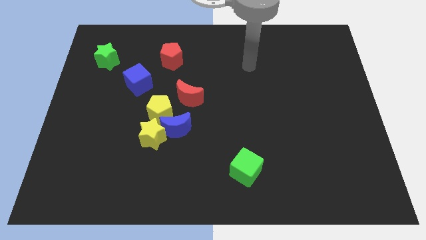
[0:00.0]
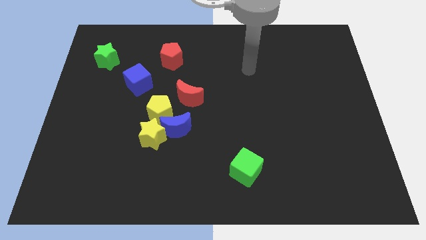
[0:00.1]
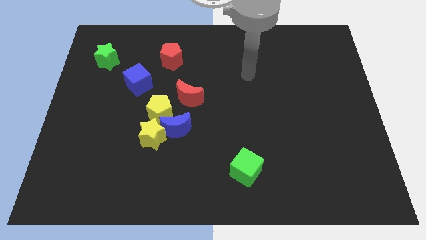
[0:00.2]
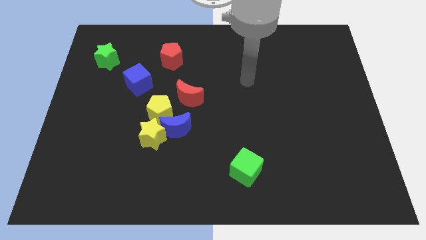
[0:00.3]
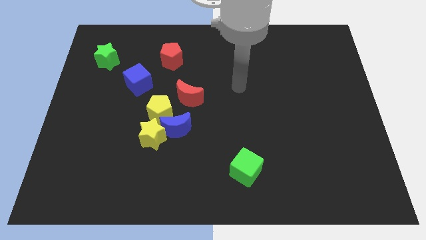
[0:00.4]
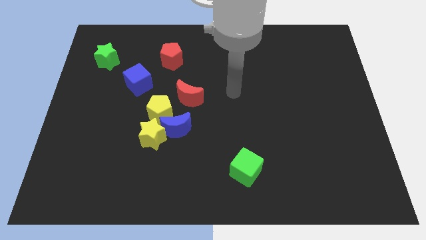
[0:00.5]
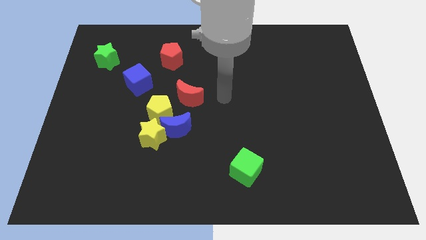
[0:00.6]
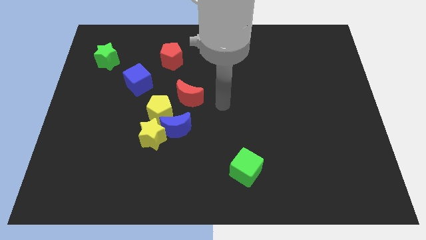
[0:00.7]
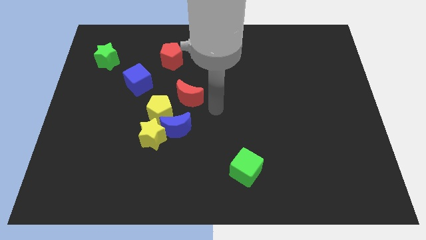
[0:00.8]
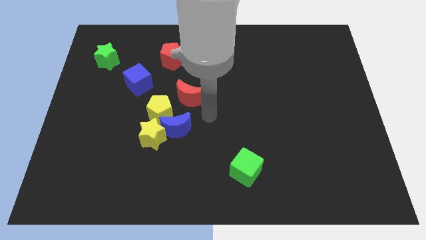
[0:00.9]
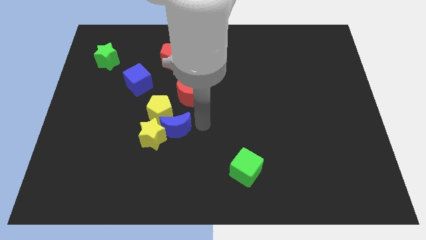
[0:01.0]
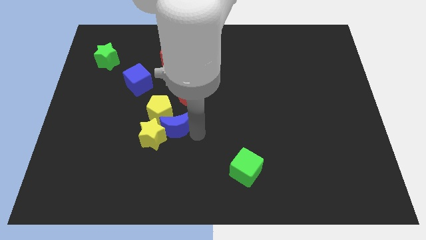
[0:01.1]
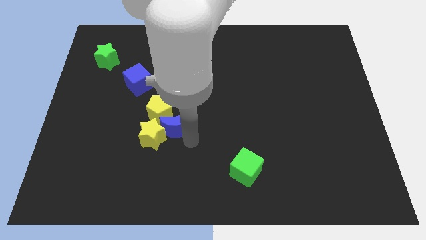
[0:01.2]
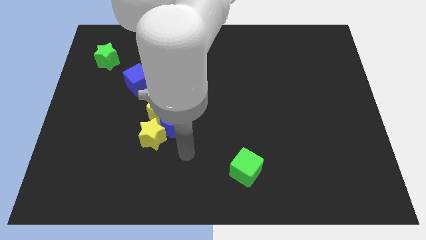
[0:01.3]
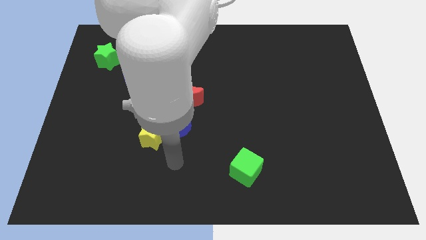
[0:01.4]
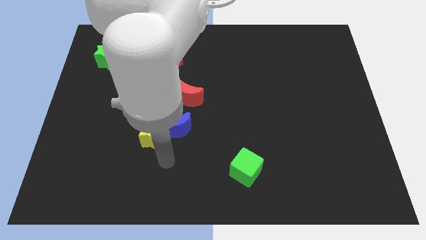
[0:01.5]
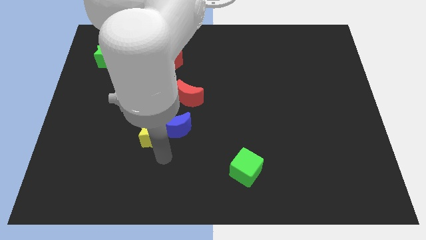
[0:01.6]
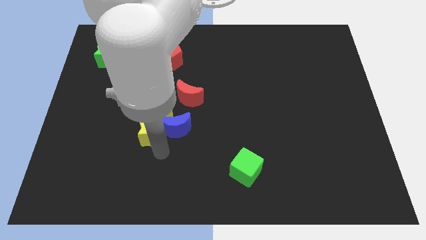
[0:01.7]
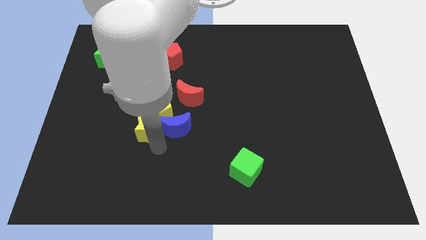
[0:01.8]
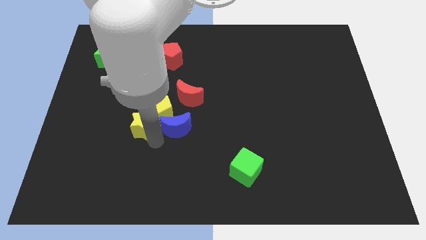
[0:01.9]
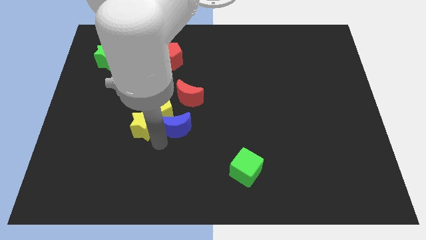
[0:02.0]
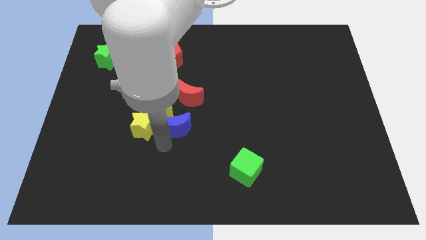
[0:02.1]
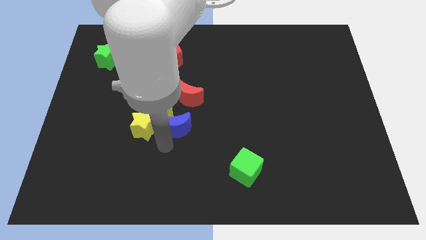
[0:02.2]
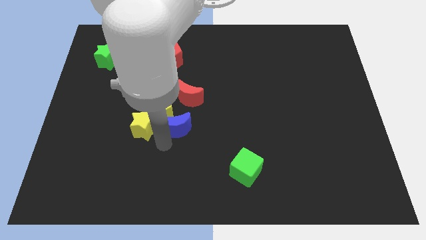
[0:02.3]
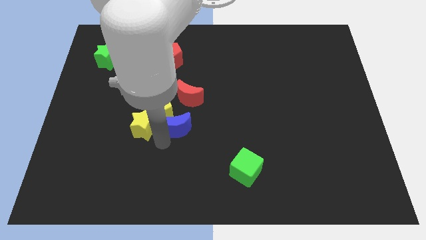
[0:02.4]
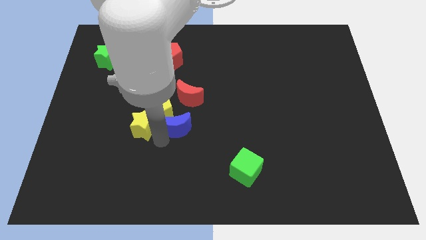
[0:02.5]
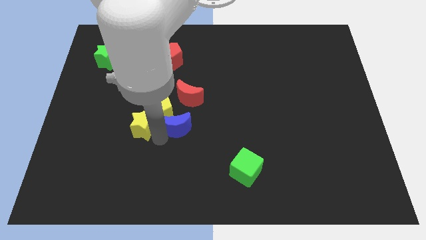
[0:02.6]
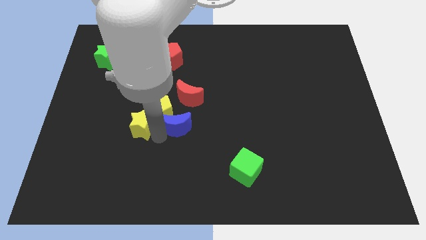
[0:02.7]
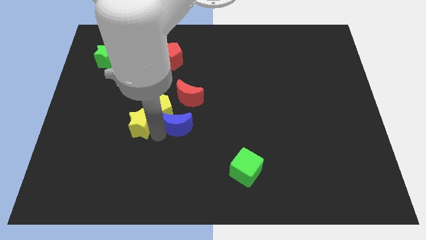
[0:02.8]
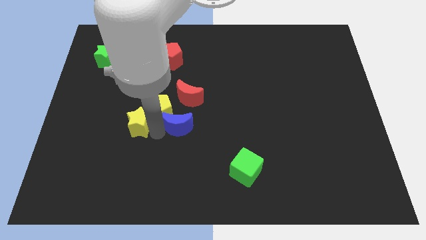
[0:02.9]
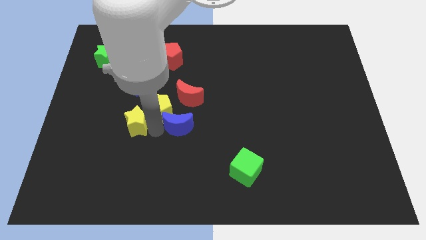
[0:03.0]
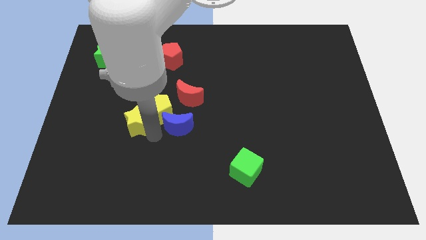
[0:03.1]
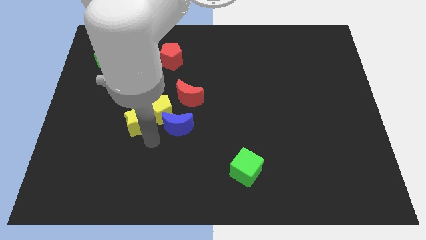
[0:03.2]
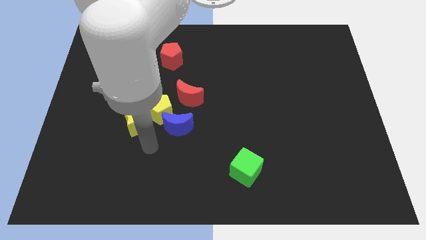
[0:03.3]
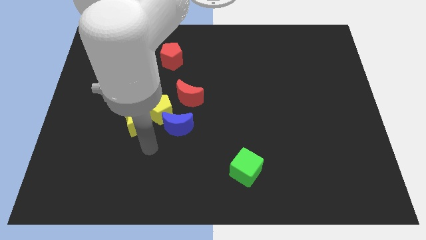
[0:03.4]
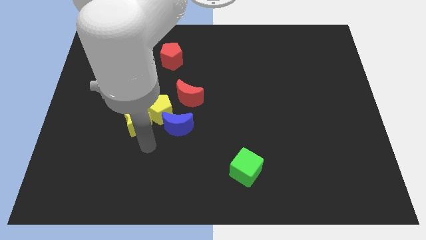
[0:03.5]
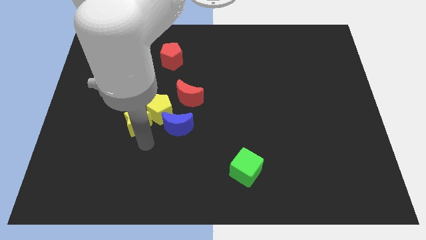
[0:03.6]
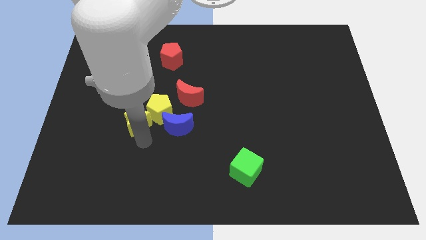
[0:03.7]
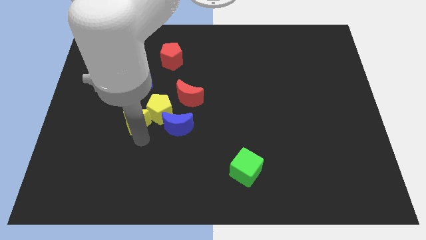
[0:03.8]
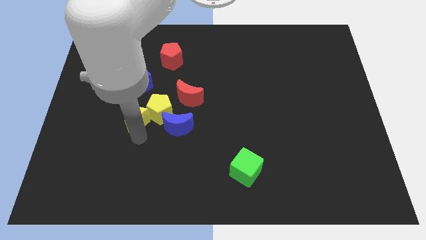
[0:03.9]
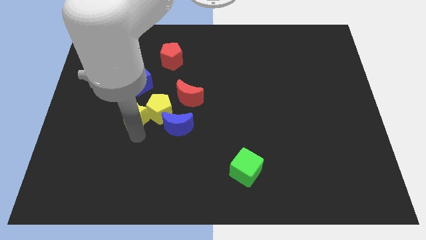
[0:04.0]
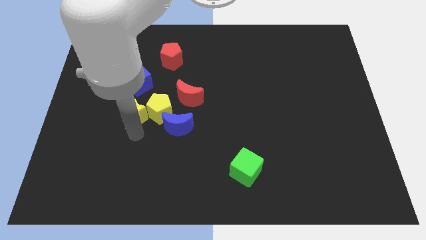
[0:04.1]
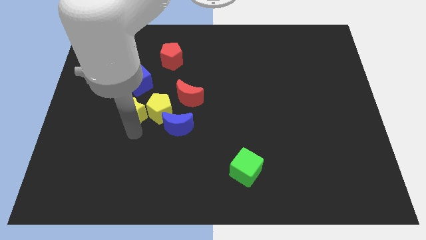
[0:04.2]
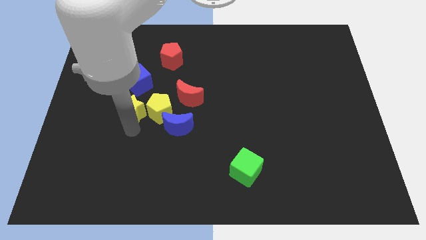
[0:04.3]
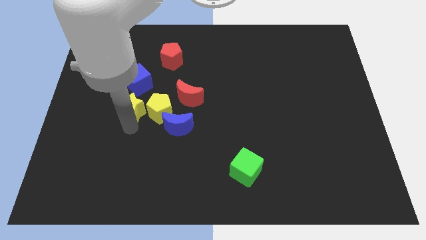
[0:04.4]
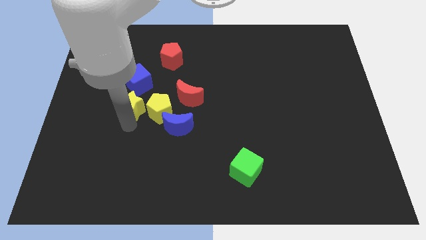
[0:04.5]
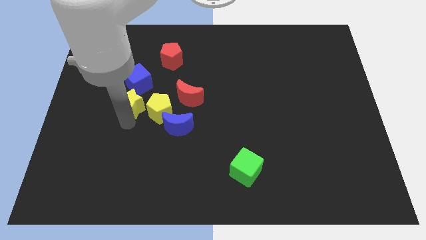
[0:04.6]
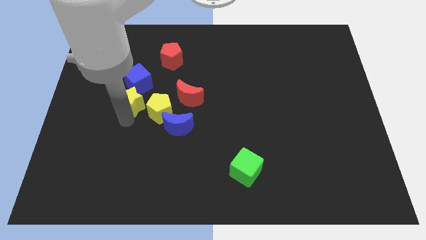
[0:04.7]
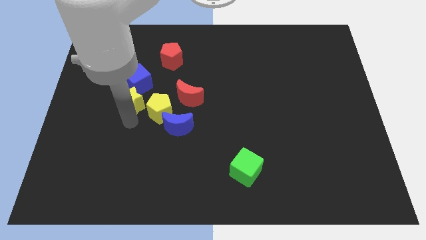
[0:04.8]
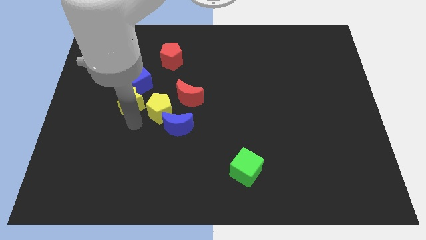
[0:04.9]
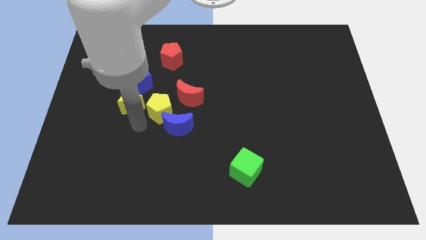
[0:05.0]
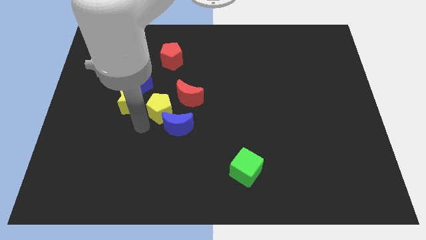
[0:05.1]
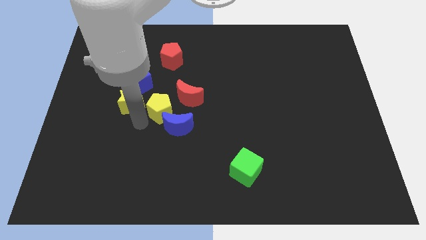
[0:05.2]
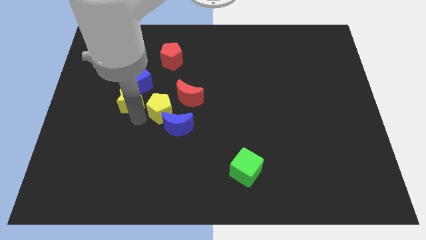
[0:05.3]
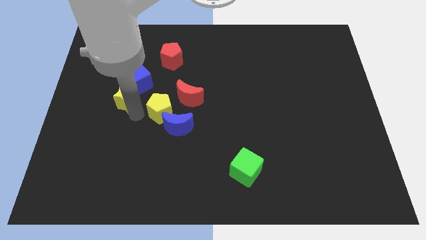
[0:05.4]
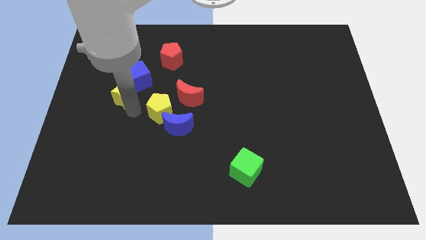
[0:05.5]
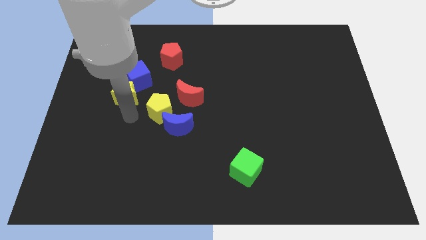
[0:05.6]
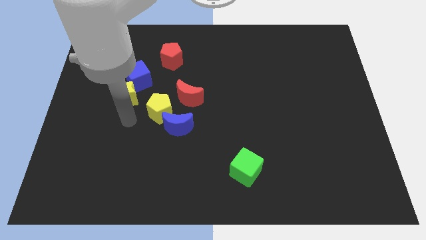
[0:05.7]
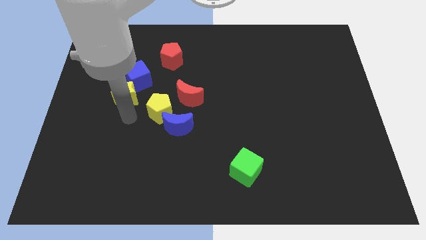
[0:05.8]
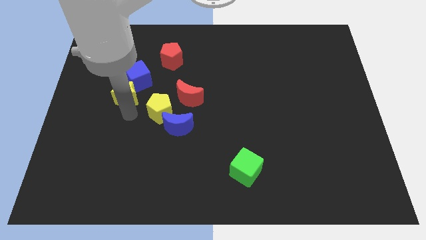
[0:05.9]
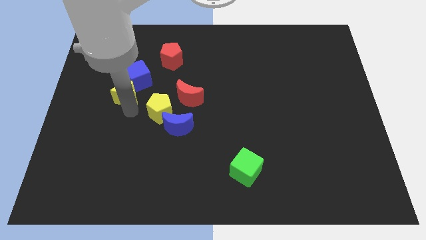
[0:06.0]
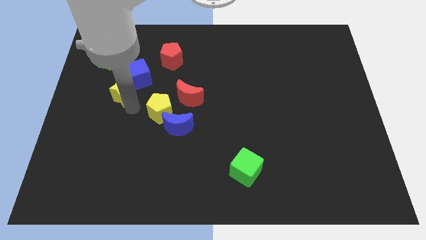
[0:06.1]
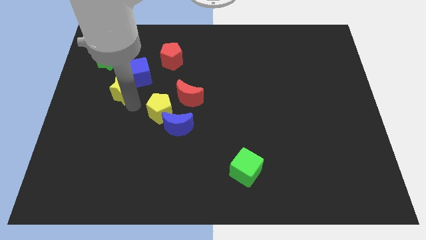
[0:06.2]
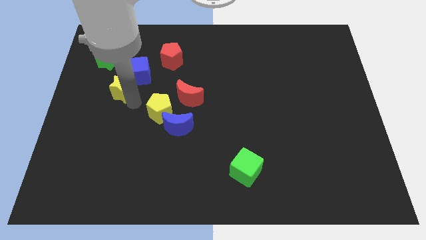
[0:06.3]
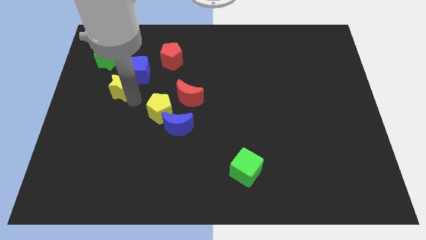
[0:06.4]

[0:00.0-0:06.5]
move the yellow star to the bottom right of the green star

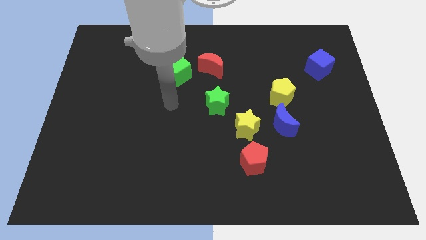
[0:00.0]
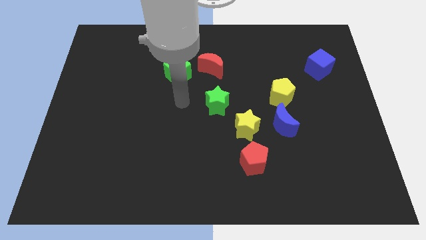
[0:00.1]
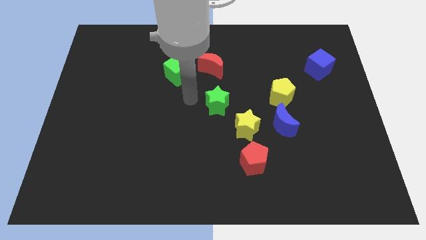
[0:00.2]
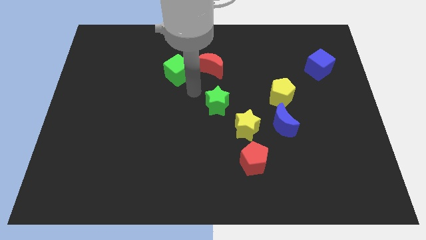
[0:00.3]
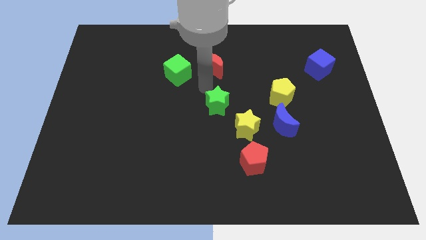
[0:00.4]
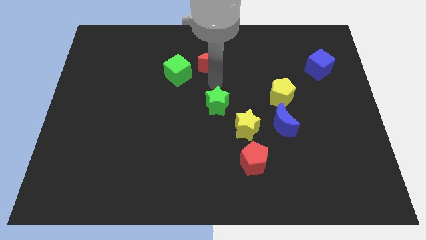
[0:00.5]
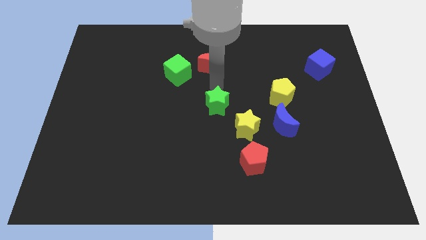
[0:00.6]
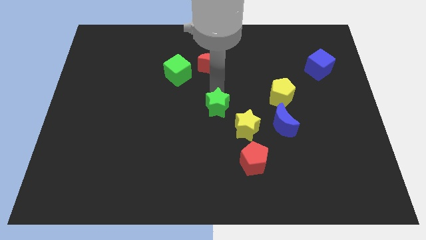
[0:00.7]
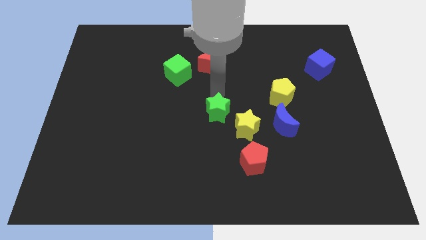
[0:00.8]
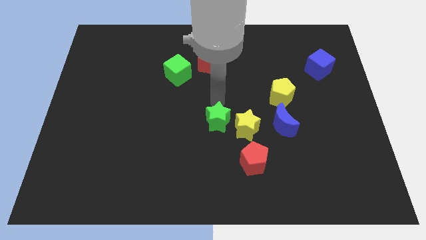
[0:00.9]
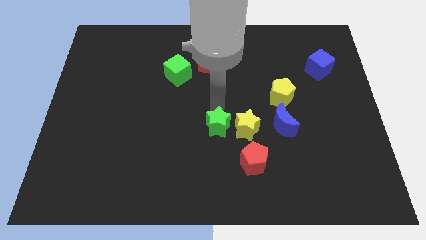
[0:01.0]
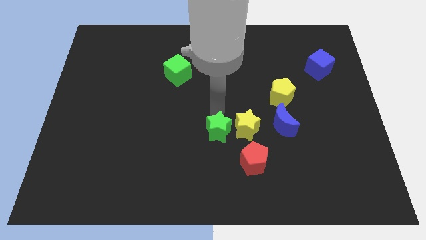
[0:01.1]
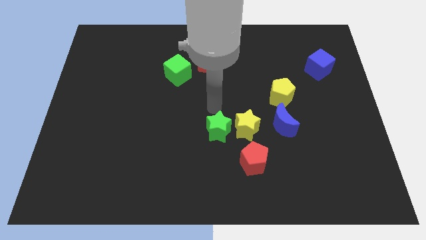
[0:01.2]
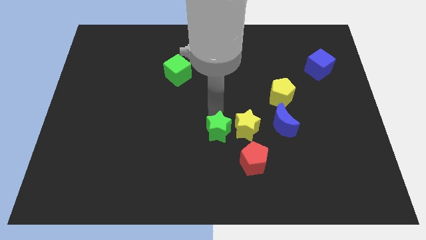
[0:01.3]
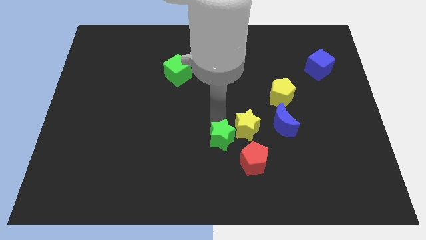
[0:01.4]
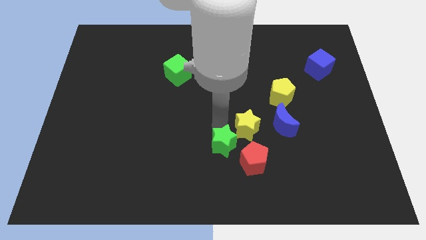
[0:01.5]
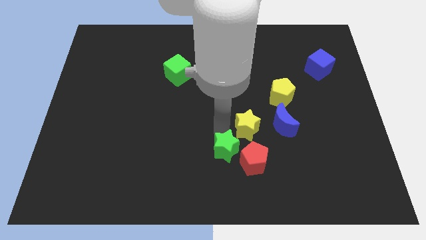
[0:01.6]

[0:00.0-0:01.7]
move the green star below the yellow star
